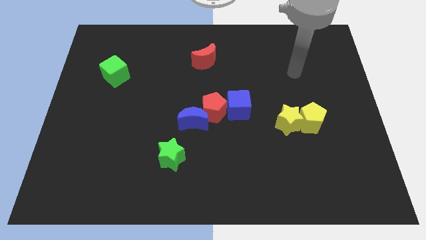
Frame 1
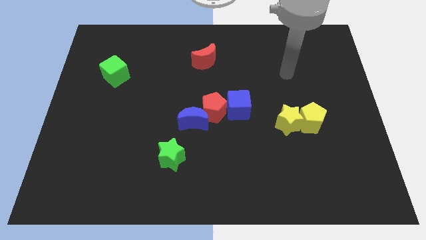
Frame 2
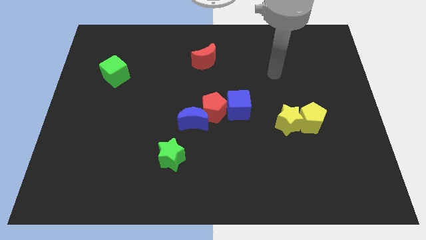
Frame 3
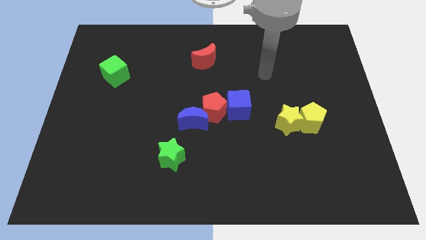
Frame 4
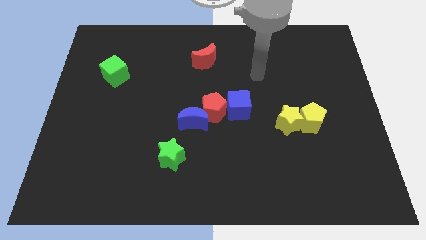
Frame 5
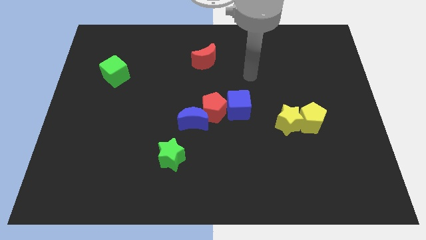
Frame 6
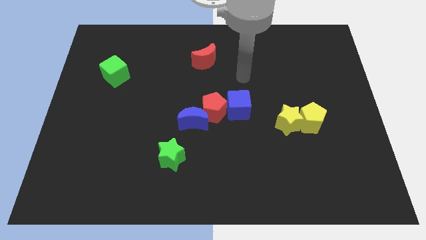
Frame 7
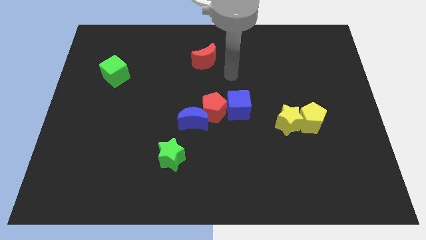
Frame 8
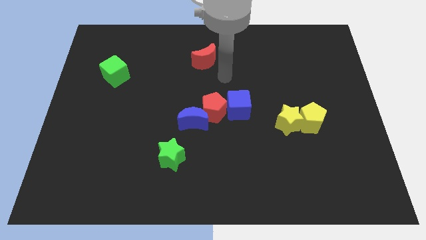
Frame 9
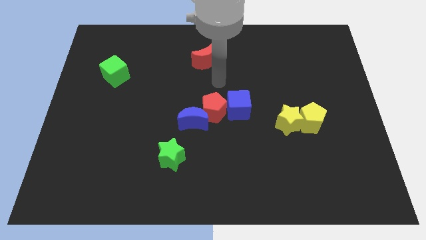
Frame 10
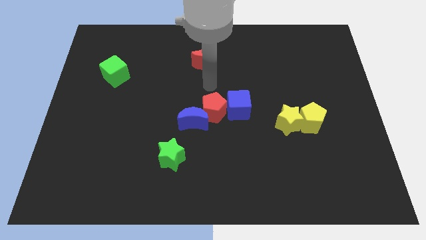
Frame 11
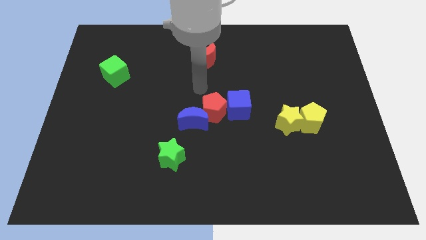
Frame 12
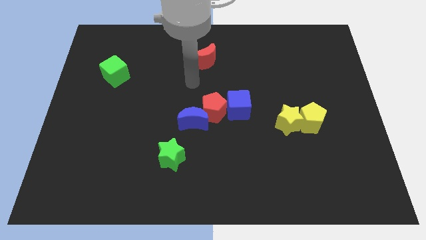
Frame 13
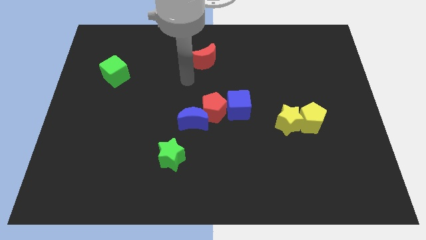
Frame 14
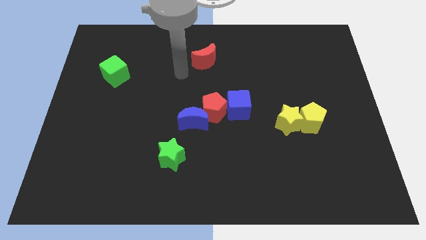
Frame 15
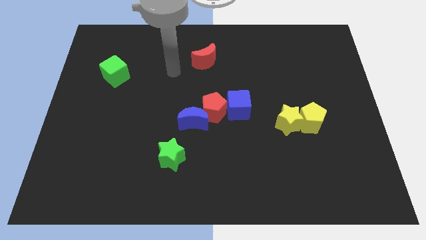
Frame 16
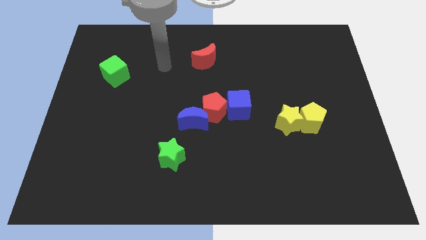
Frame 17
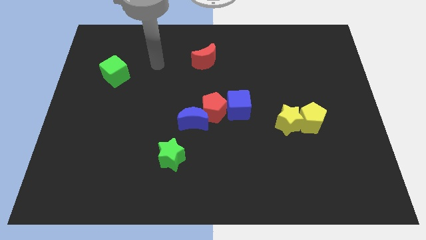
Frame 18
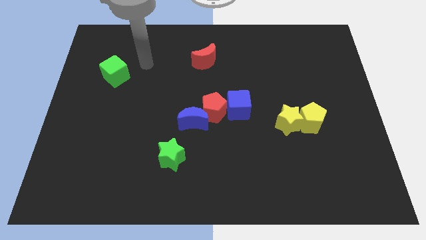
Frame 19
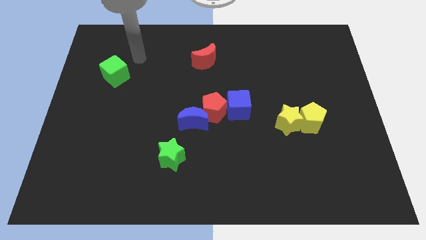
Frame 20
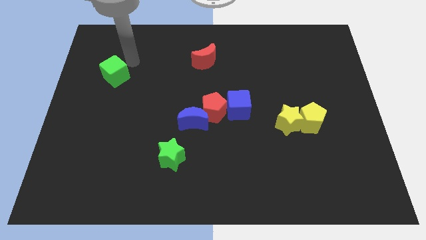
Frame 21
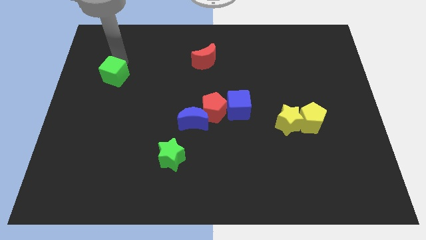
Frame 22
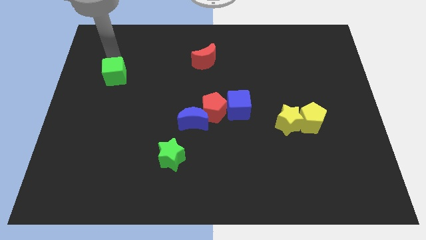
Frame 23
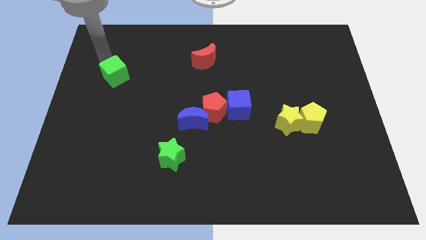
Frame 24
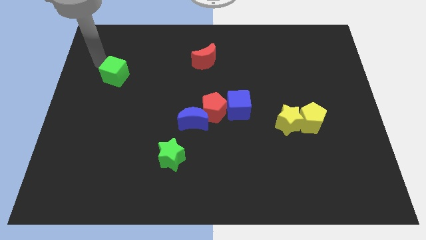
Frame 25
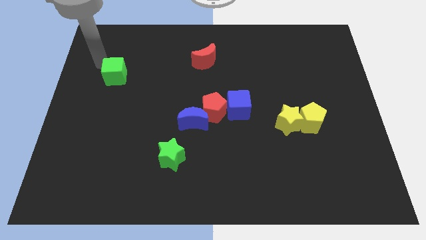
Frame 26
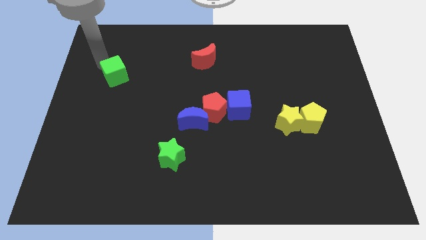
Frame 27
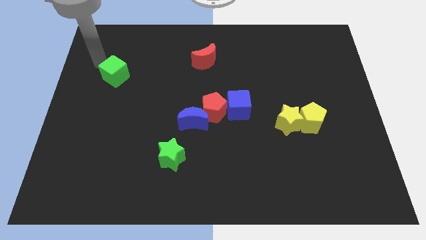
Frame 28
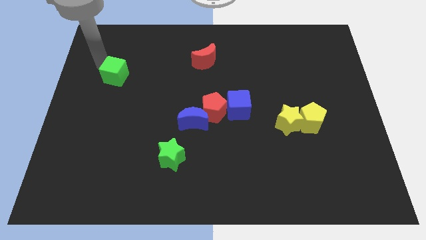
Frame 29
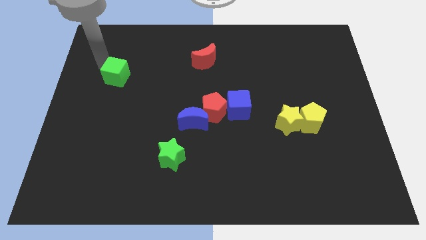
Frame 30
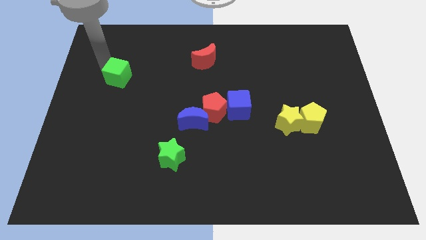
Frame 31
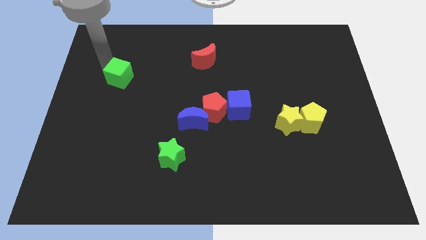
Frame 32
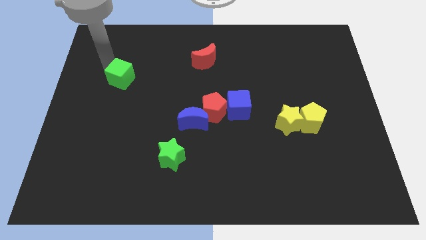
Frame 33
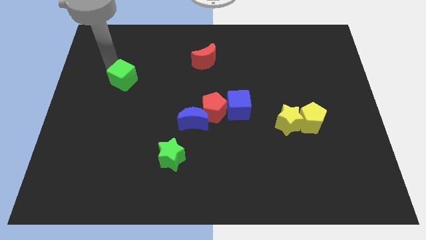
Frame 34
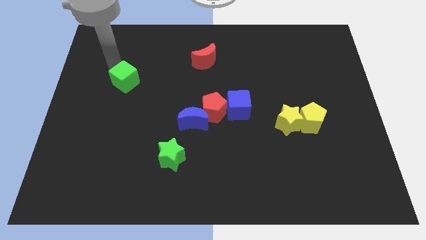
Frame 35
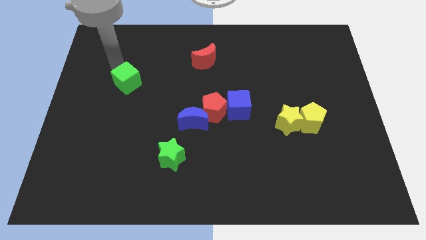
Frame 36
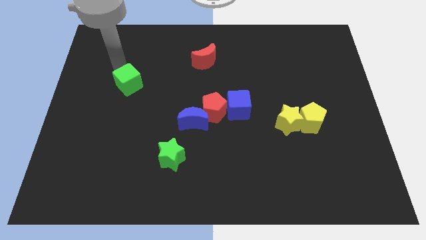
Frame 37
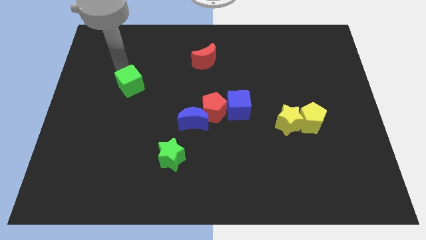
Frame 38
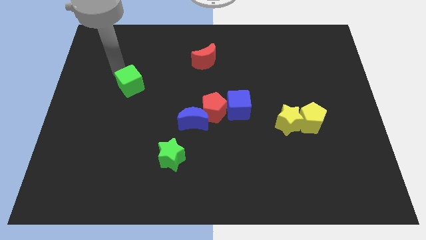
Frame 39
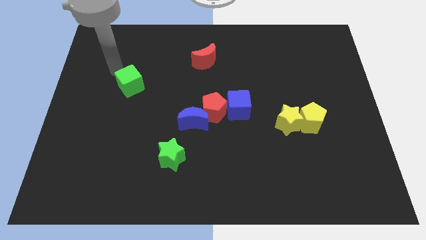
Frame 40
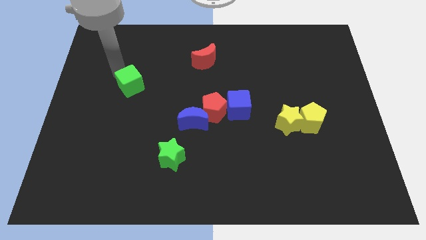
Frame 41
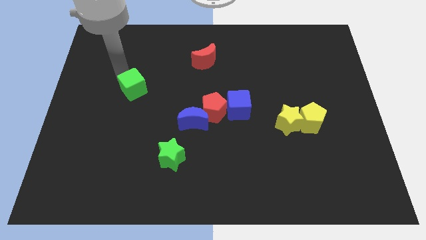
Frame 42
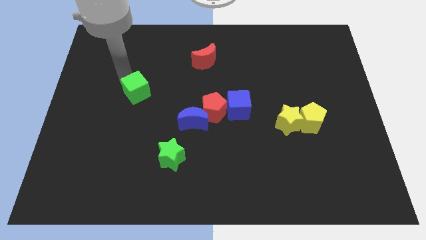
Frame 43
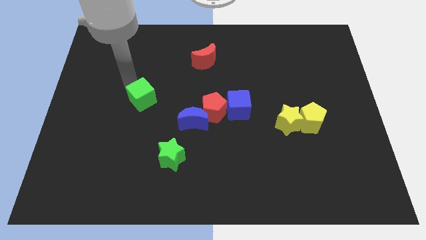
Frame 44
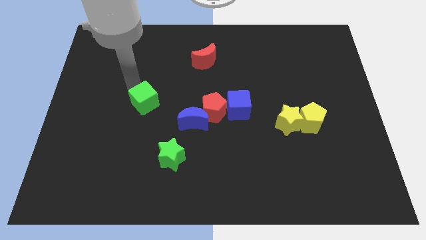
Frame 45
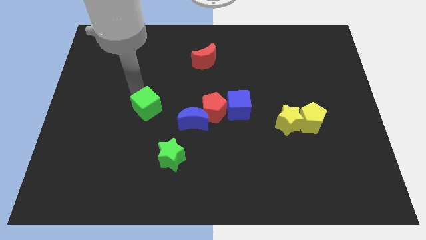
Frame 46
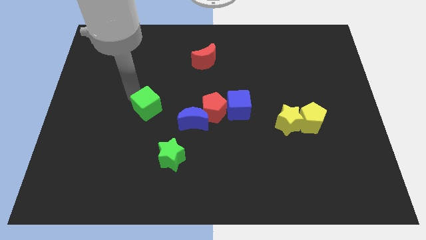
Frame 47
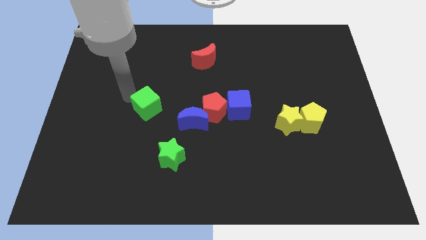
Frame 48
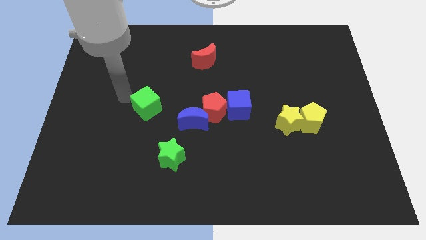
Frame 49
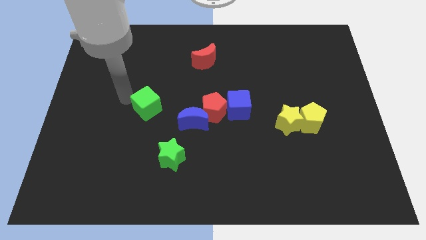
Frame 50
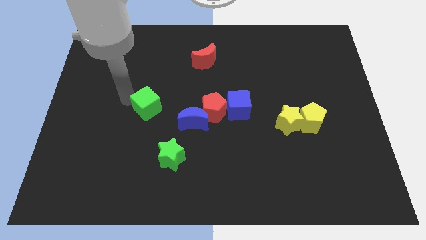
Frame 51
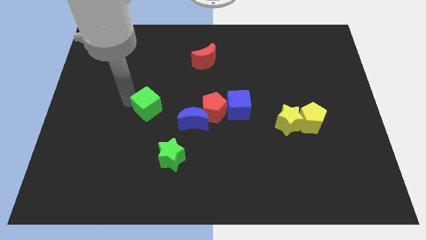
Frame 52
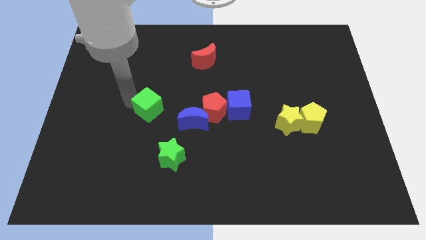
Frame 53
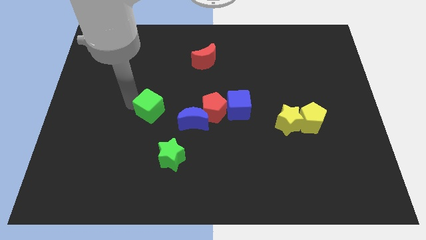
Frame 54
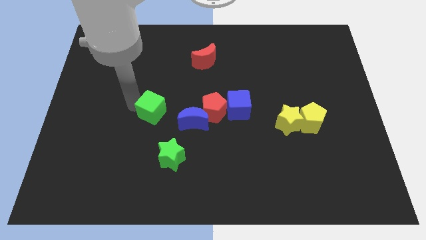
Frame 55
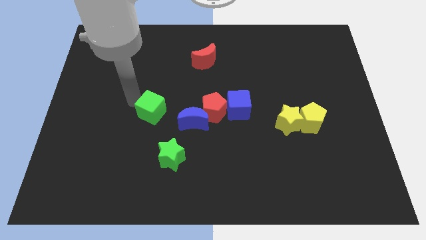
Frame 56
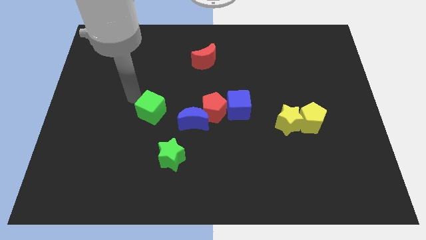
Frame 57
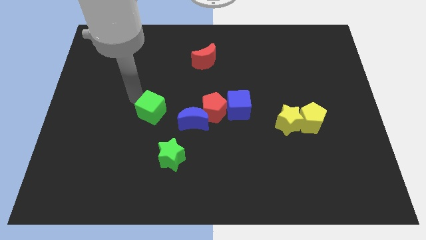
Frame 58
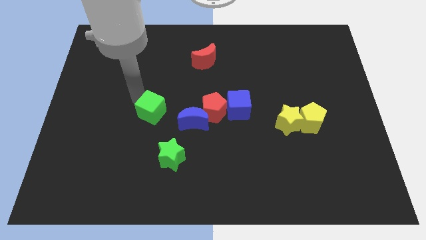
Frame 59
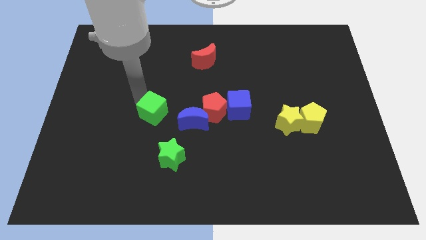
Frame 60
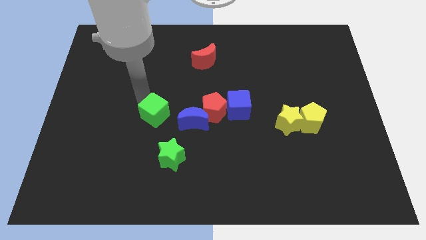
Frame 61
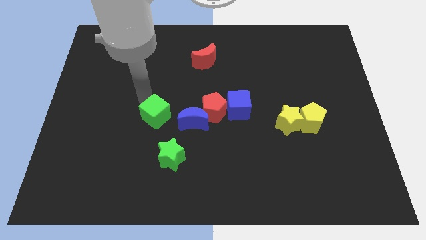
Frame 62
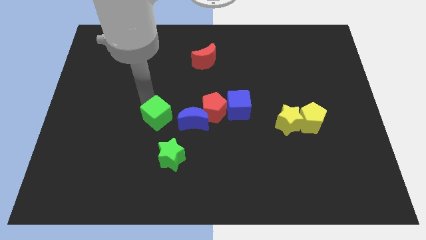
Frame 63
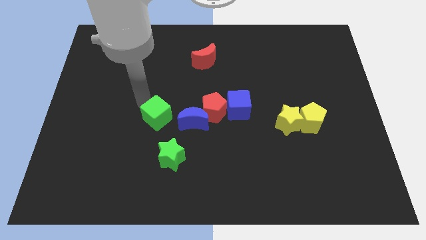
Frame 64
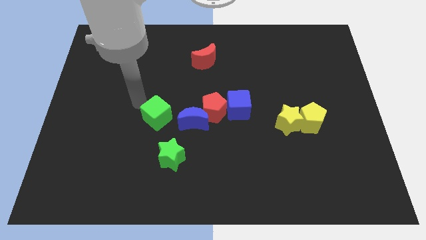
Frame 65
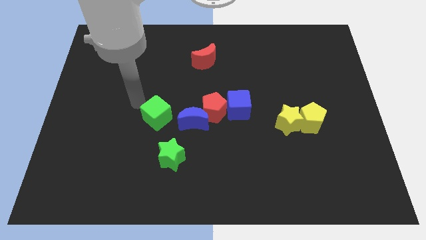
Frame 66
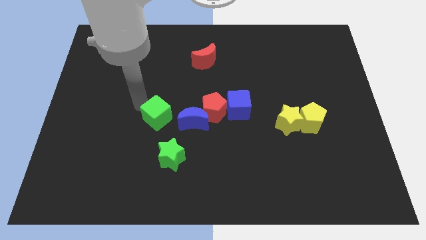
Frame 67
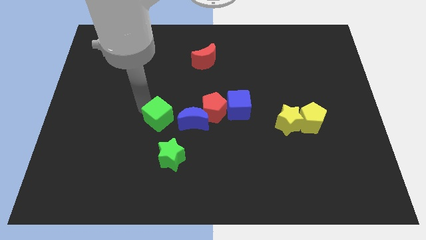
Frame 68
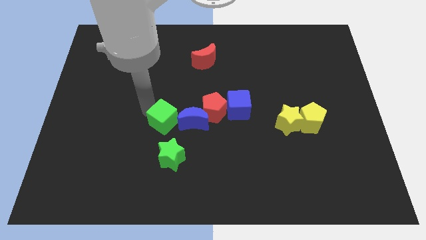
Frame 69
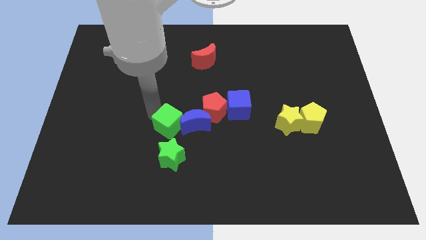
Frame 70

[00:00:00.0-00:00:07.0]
move the green cube downwards and right

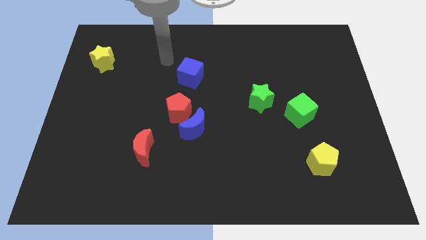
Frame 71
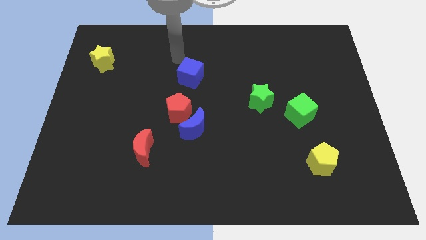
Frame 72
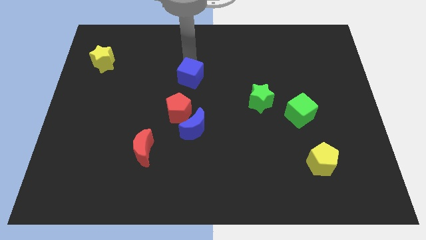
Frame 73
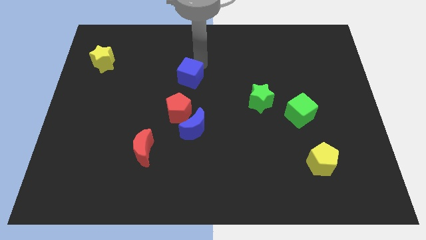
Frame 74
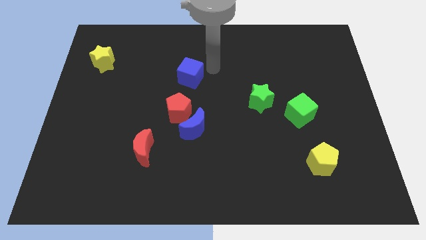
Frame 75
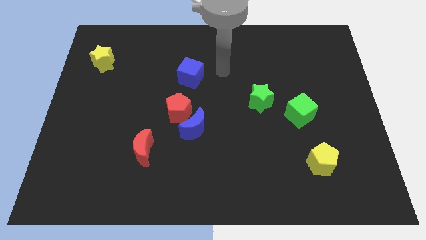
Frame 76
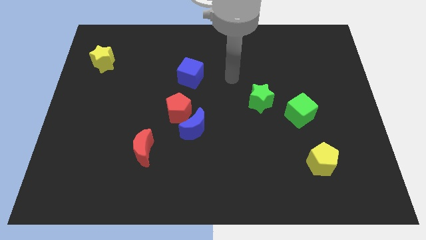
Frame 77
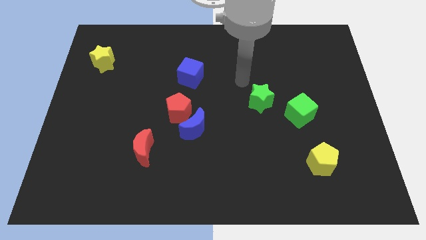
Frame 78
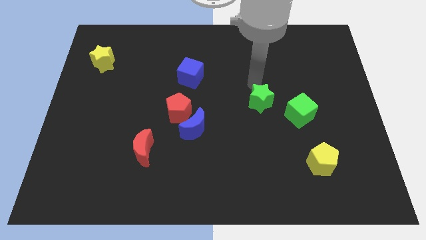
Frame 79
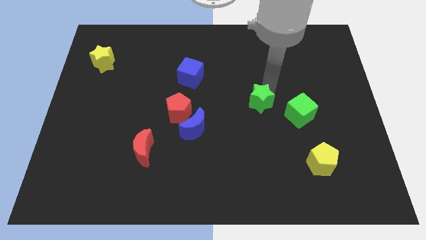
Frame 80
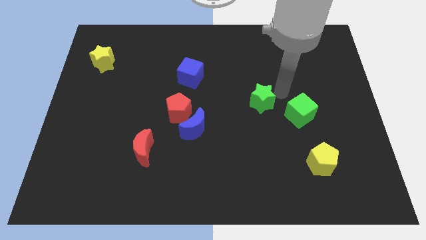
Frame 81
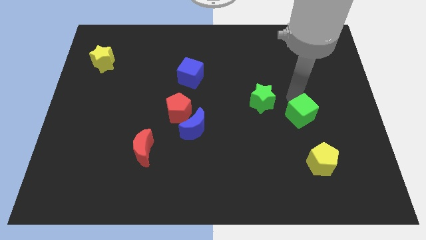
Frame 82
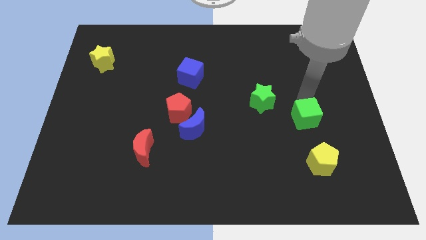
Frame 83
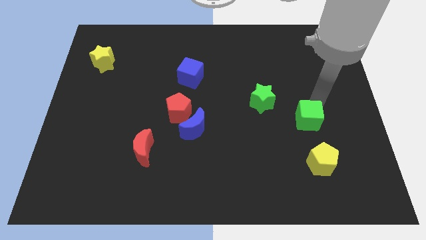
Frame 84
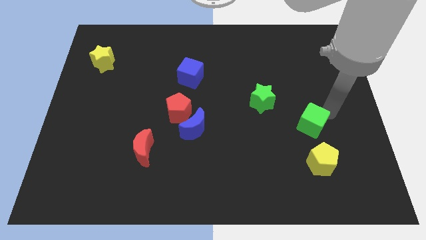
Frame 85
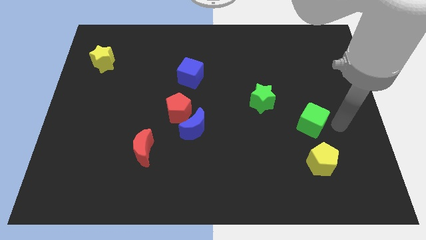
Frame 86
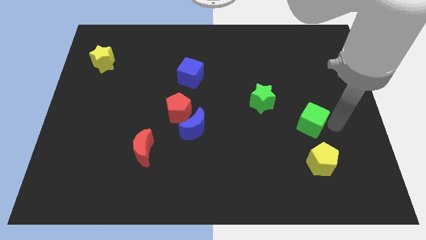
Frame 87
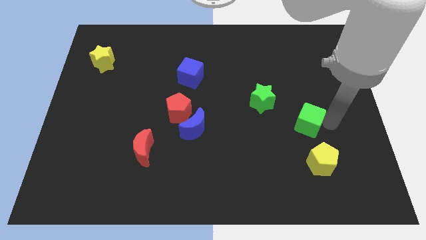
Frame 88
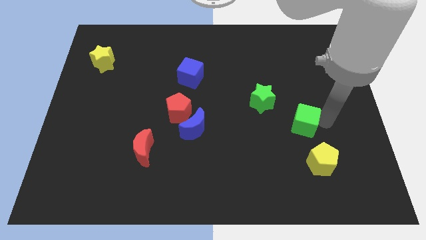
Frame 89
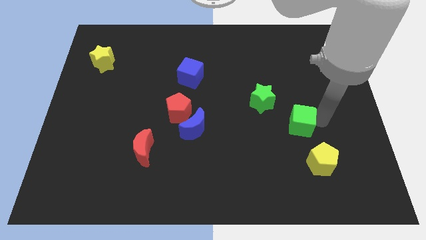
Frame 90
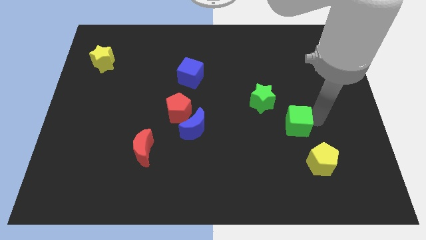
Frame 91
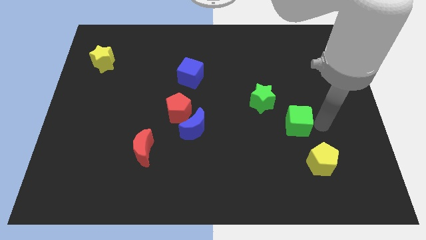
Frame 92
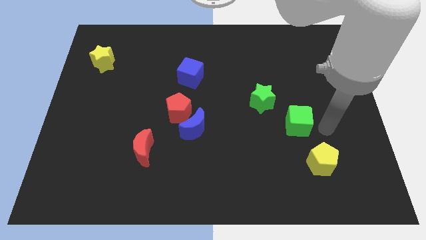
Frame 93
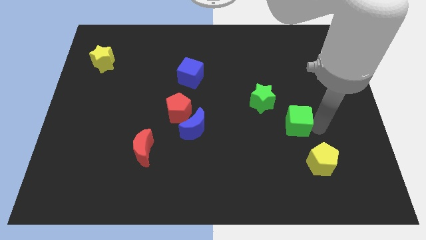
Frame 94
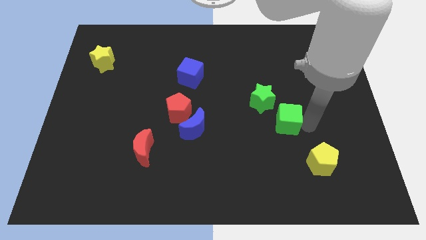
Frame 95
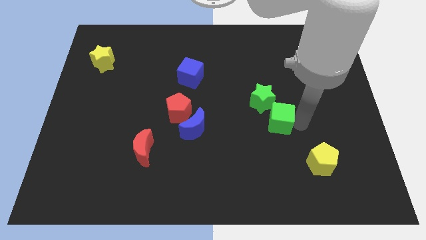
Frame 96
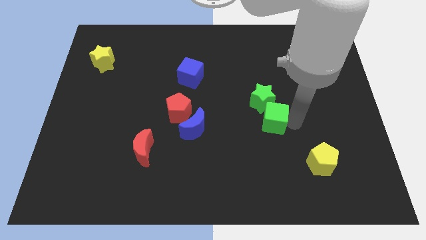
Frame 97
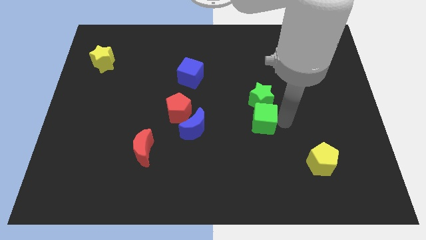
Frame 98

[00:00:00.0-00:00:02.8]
slightly slide the green cube to the left
